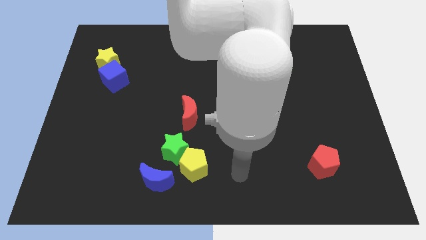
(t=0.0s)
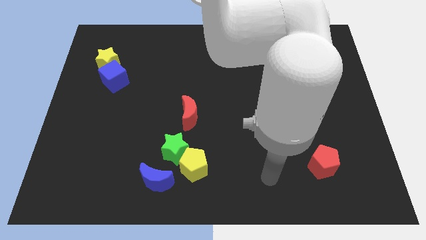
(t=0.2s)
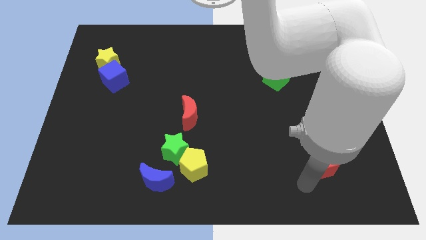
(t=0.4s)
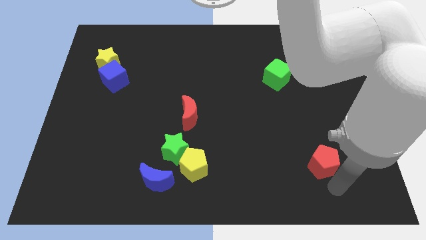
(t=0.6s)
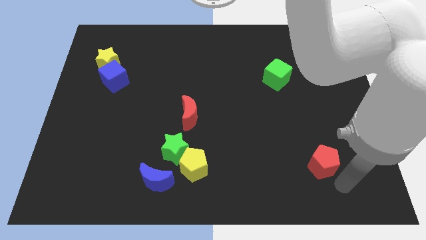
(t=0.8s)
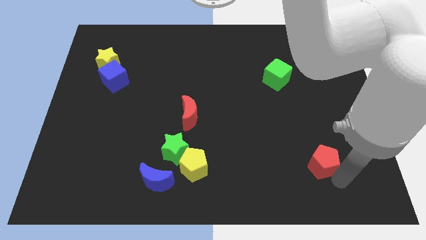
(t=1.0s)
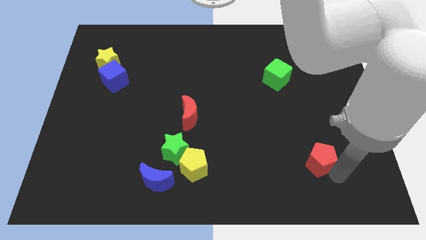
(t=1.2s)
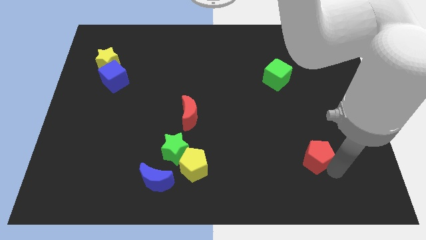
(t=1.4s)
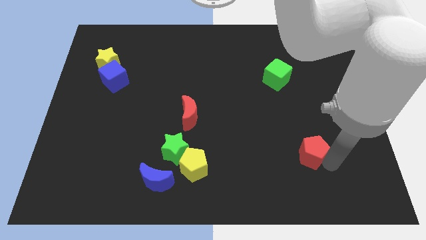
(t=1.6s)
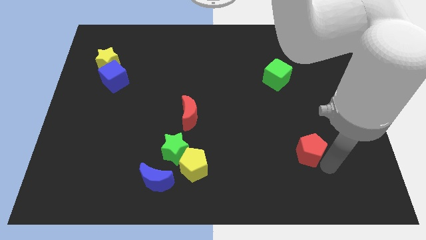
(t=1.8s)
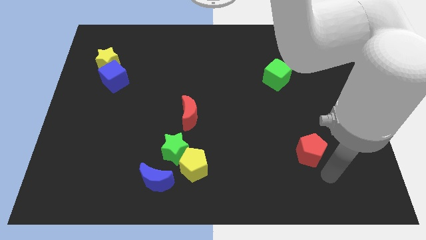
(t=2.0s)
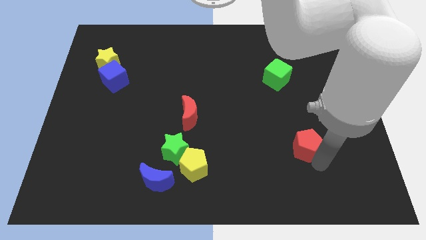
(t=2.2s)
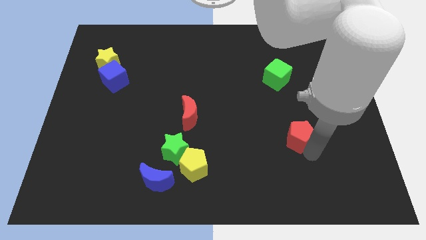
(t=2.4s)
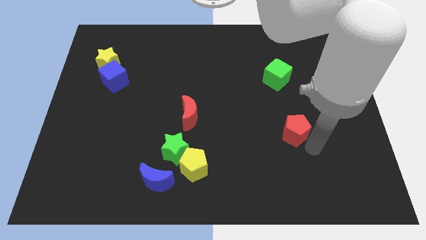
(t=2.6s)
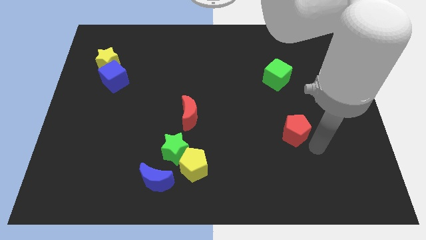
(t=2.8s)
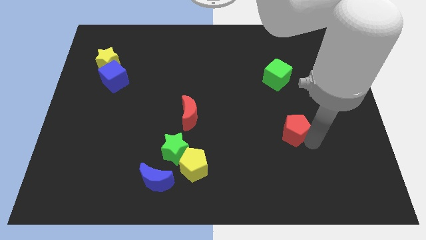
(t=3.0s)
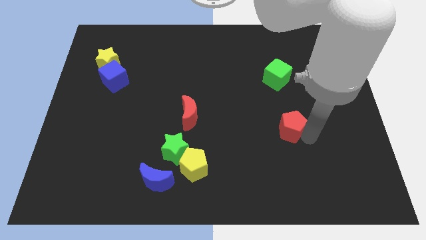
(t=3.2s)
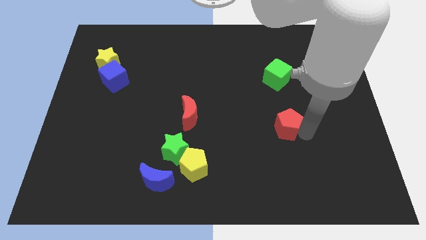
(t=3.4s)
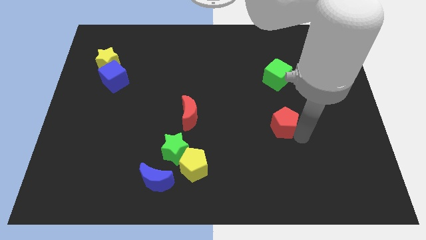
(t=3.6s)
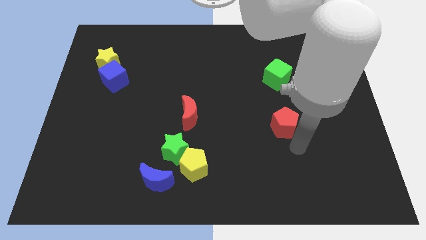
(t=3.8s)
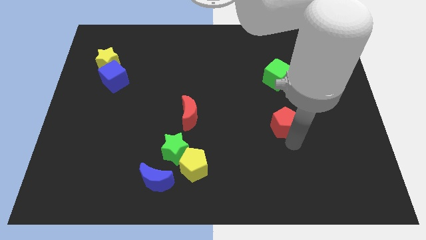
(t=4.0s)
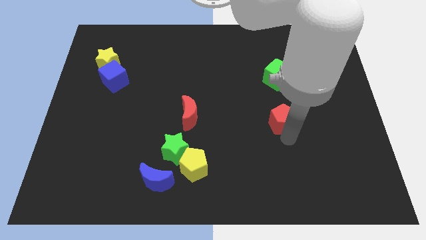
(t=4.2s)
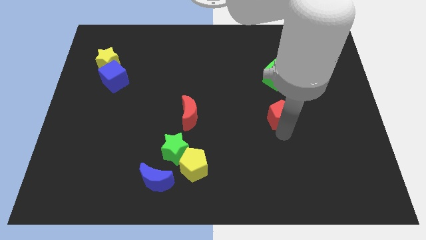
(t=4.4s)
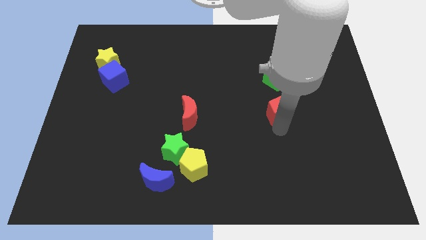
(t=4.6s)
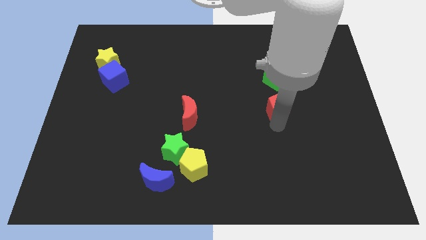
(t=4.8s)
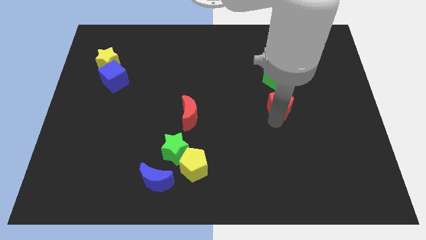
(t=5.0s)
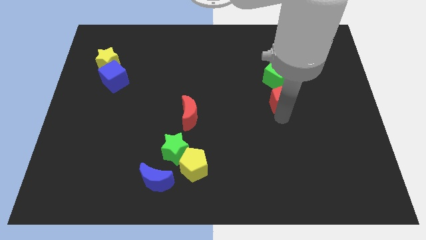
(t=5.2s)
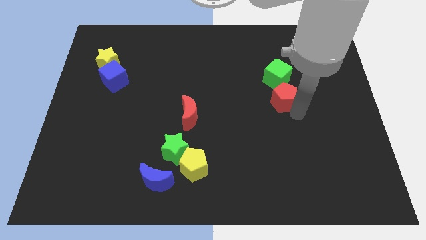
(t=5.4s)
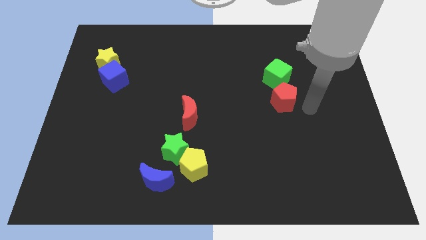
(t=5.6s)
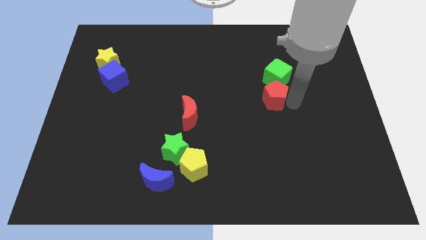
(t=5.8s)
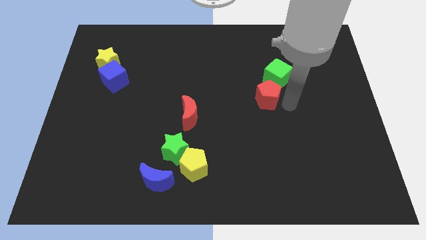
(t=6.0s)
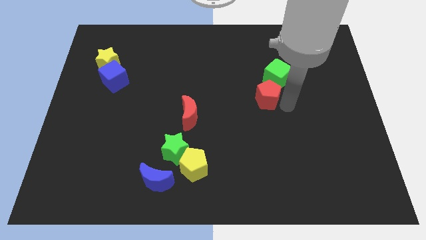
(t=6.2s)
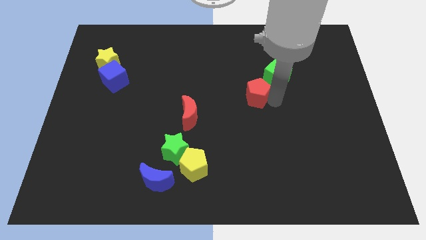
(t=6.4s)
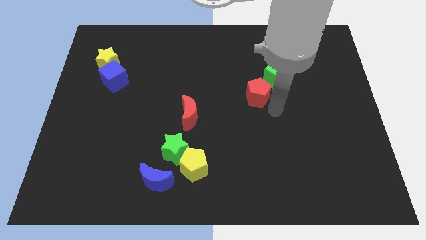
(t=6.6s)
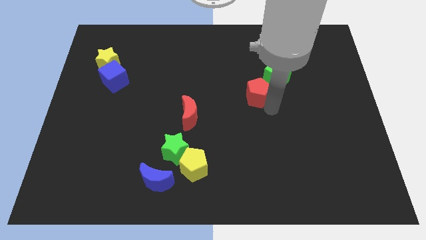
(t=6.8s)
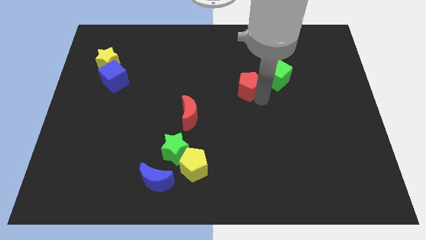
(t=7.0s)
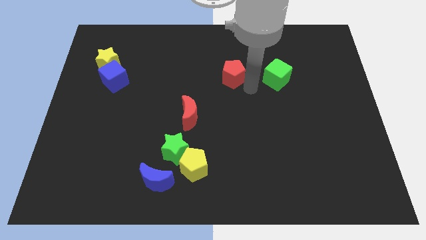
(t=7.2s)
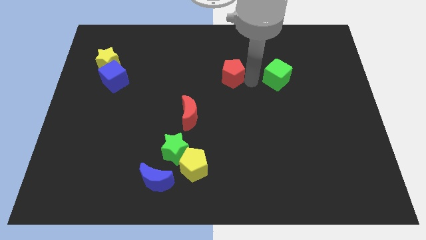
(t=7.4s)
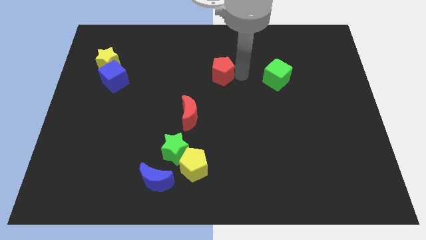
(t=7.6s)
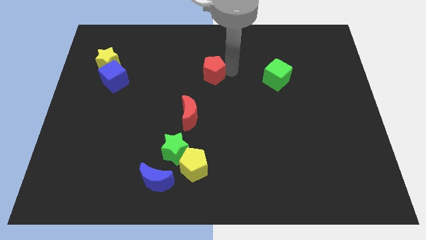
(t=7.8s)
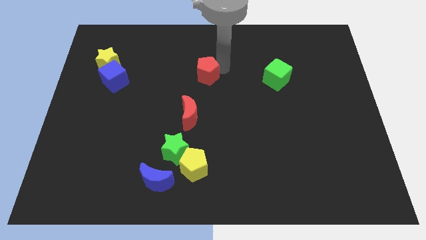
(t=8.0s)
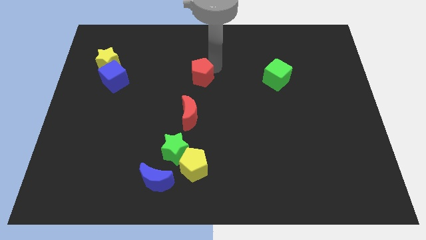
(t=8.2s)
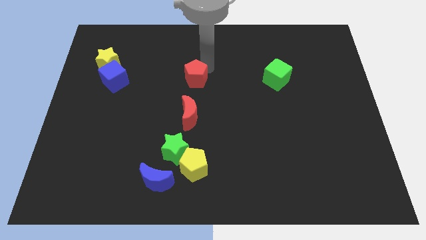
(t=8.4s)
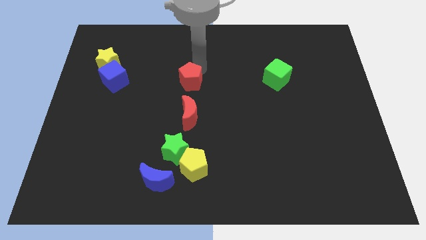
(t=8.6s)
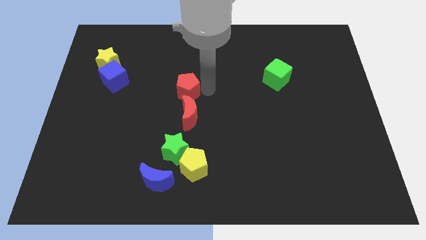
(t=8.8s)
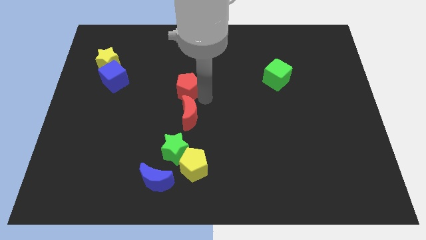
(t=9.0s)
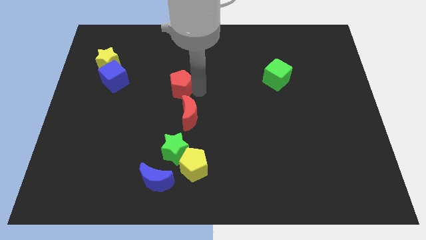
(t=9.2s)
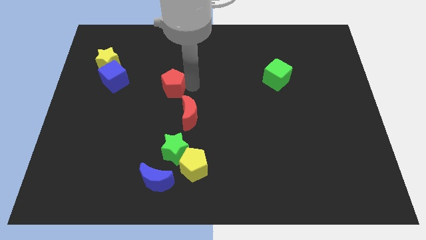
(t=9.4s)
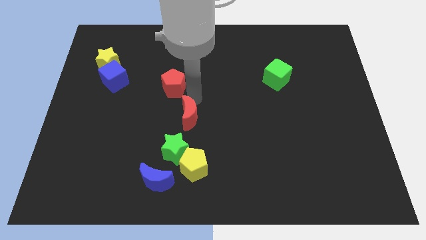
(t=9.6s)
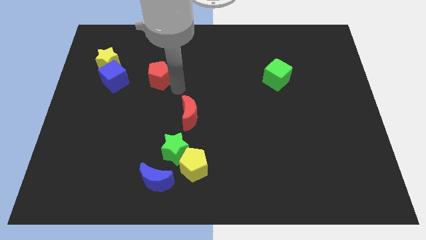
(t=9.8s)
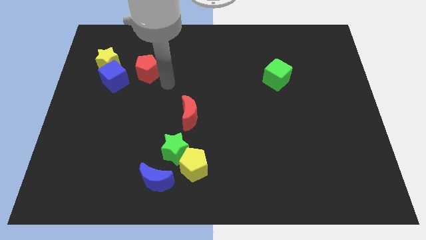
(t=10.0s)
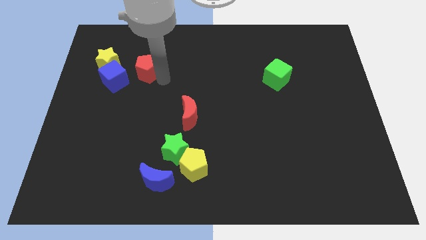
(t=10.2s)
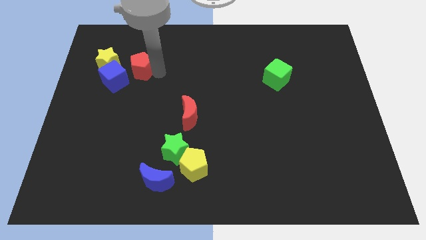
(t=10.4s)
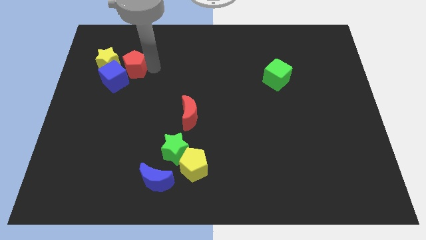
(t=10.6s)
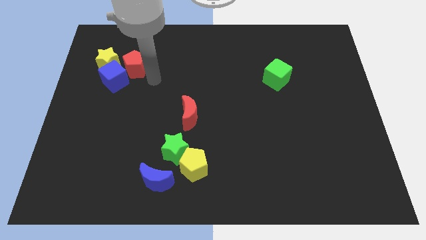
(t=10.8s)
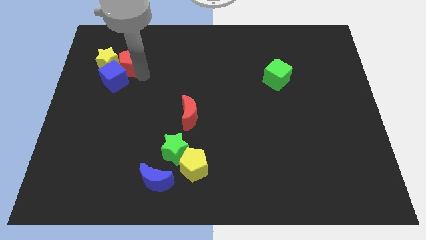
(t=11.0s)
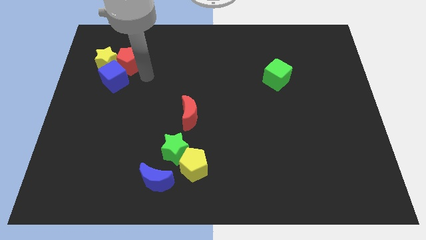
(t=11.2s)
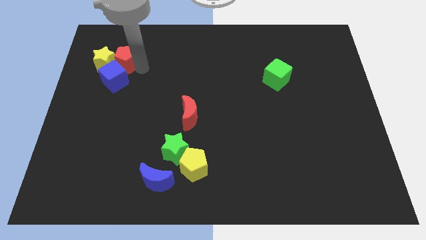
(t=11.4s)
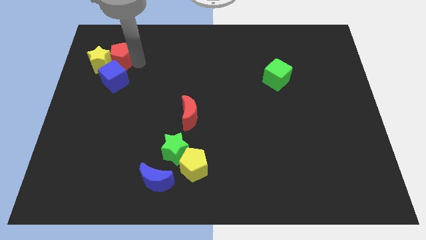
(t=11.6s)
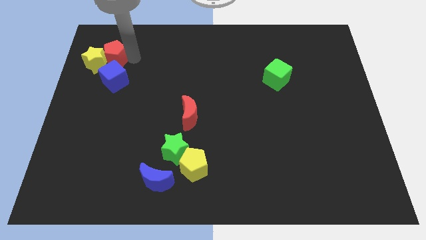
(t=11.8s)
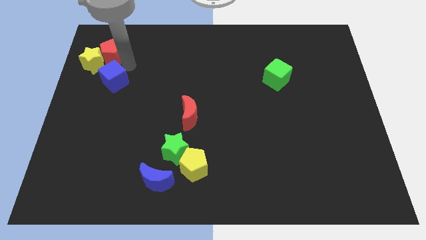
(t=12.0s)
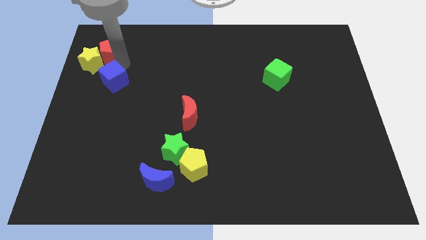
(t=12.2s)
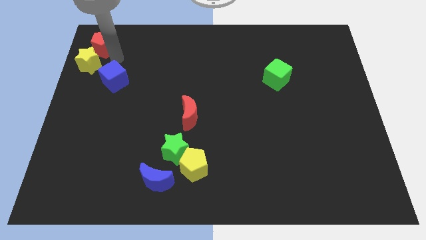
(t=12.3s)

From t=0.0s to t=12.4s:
push the red pentagon to the upper left corner
